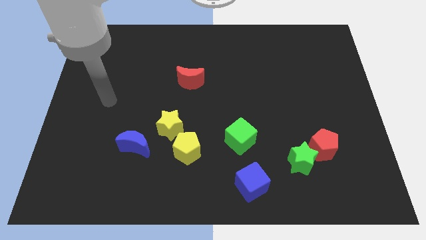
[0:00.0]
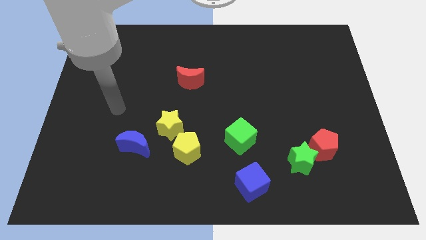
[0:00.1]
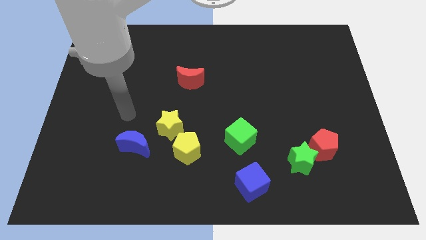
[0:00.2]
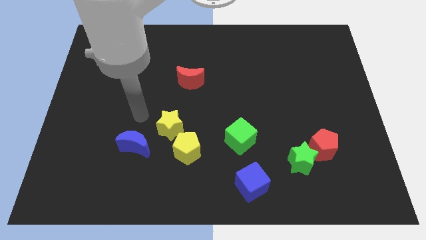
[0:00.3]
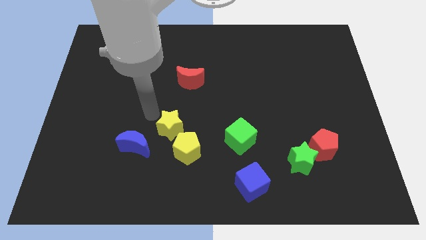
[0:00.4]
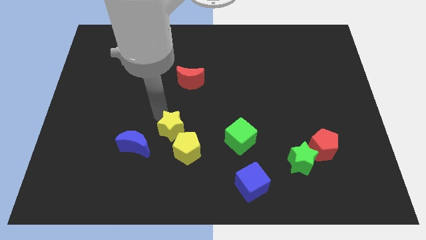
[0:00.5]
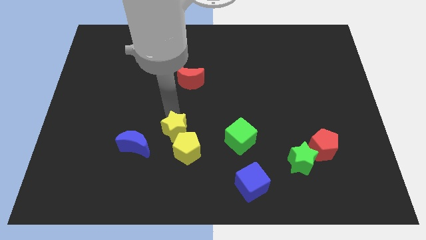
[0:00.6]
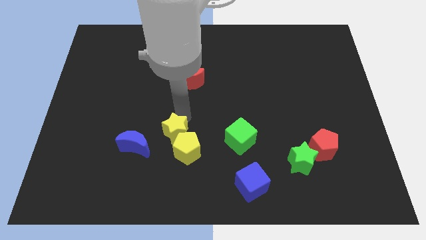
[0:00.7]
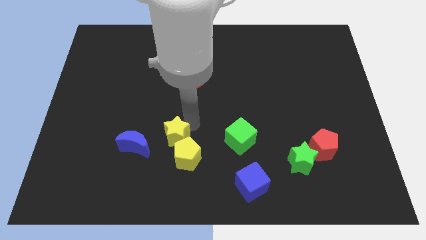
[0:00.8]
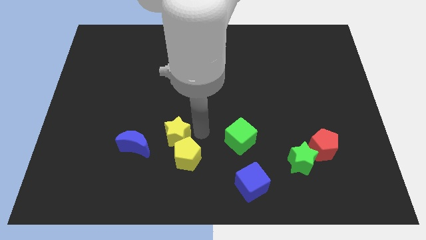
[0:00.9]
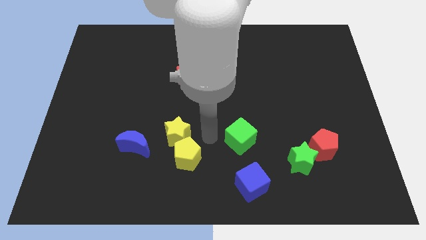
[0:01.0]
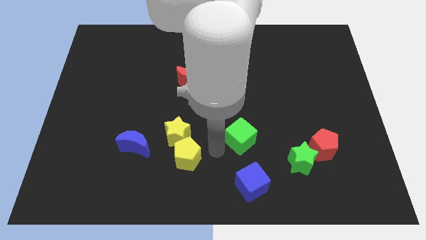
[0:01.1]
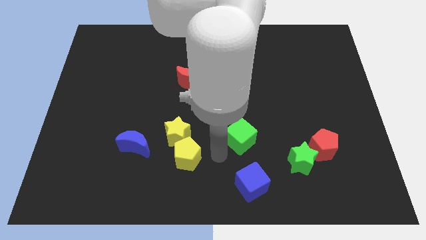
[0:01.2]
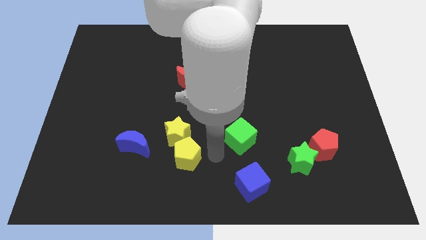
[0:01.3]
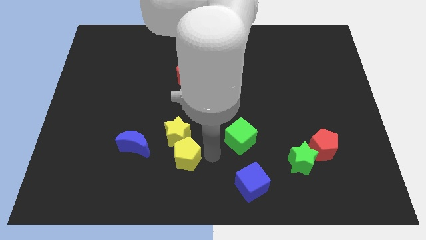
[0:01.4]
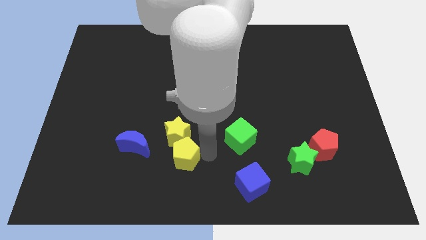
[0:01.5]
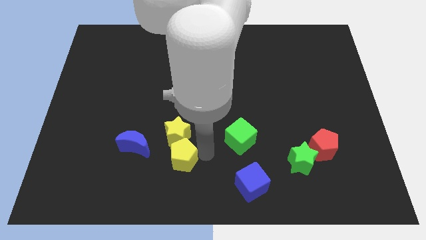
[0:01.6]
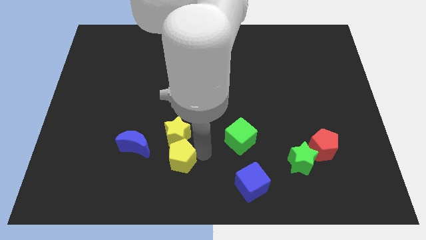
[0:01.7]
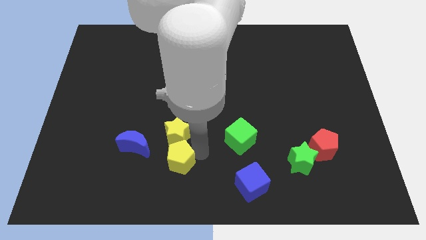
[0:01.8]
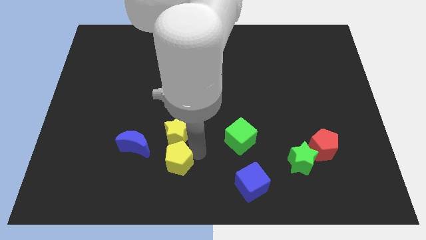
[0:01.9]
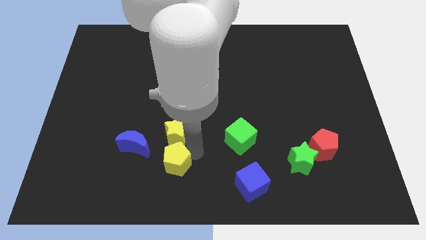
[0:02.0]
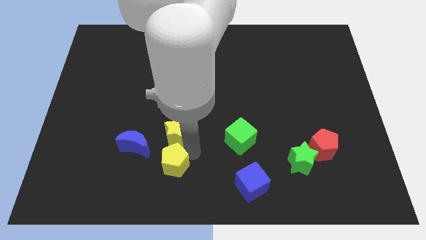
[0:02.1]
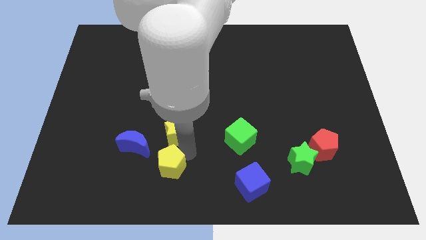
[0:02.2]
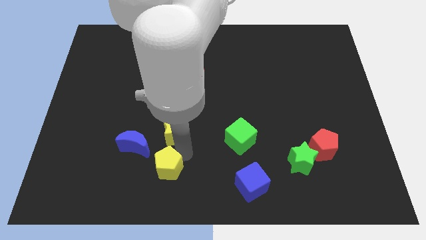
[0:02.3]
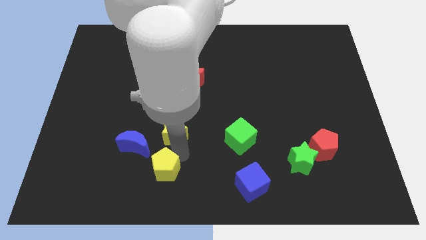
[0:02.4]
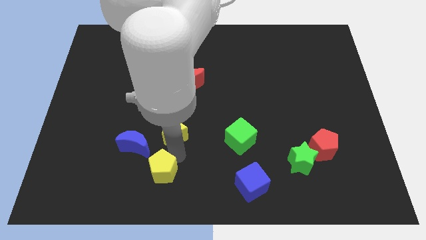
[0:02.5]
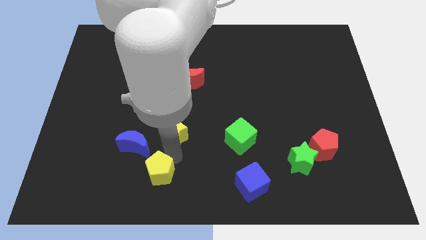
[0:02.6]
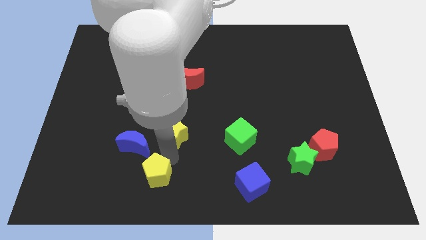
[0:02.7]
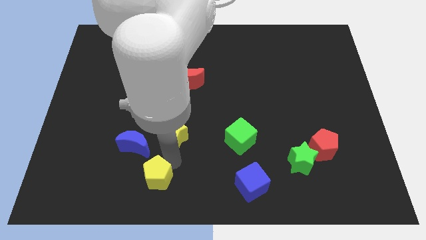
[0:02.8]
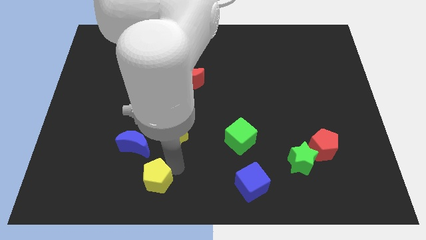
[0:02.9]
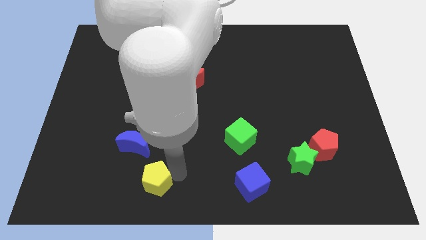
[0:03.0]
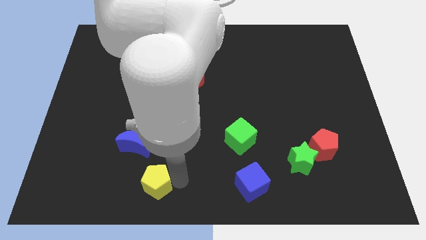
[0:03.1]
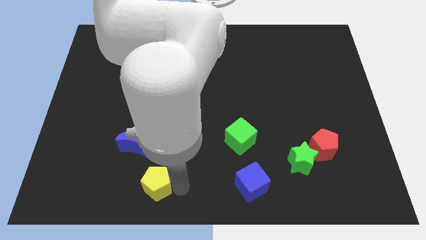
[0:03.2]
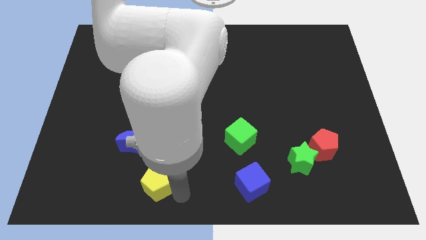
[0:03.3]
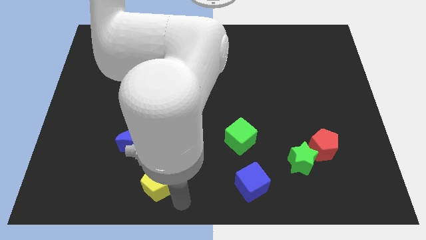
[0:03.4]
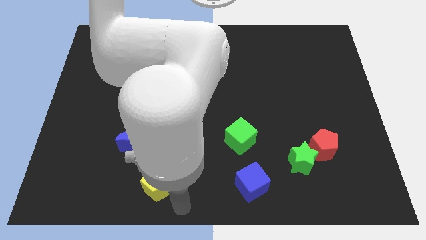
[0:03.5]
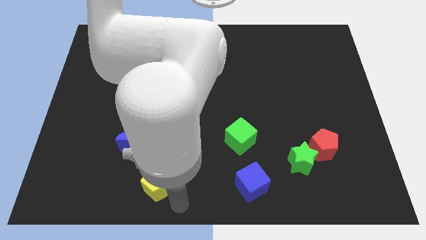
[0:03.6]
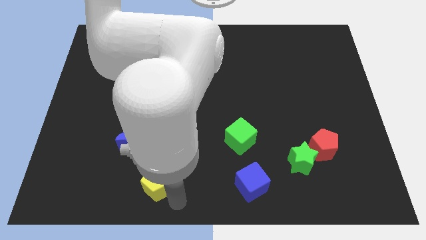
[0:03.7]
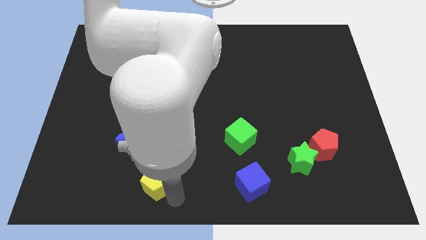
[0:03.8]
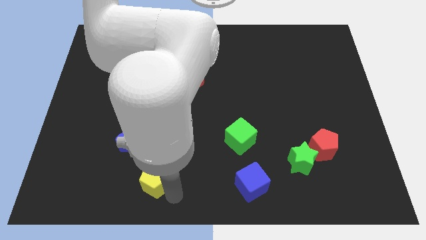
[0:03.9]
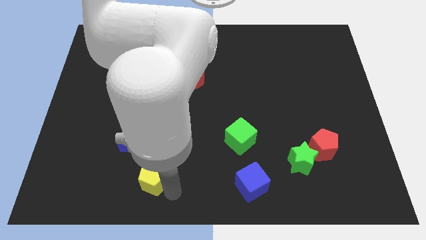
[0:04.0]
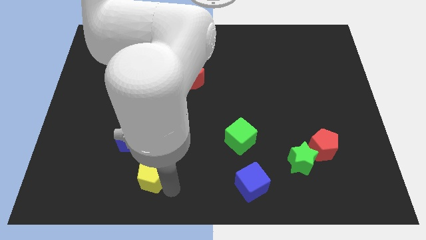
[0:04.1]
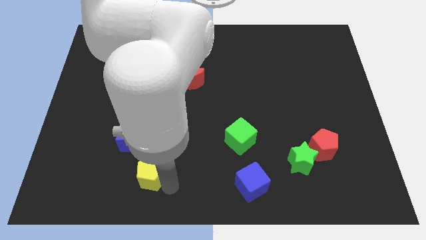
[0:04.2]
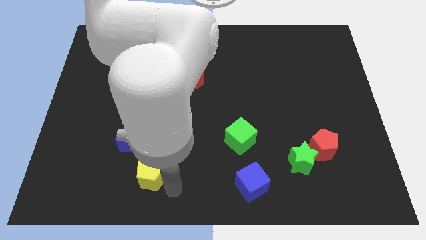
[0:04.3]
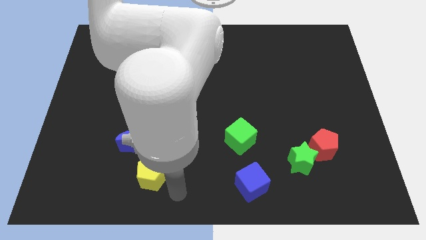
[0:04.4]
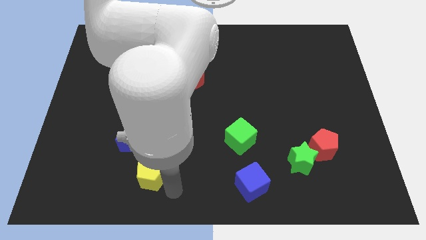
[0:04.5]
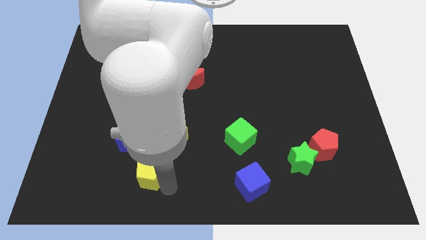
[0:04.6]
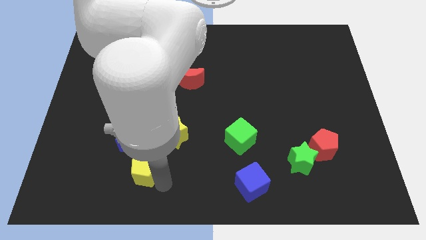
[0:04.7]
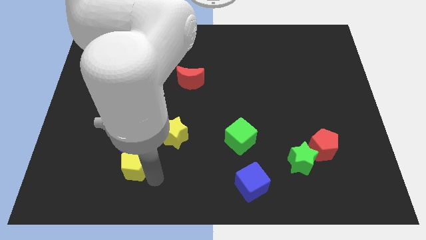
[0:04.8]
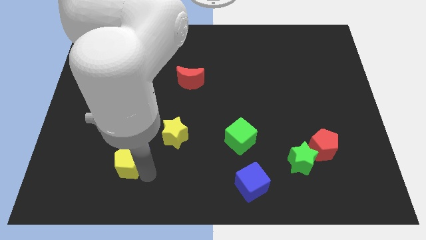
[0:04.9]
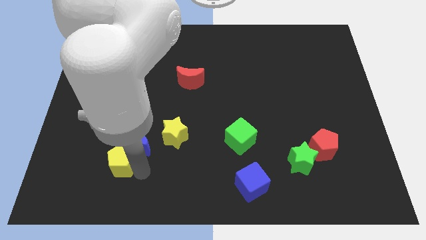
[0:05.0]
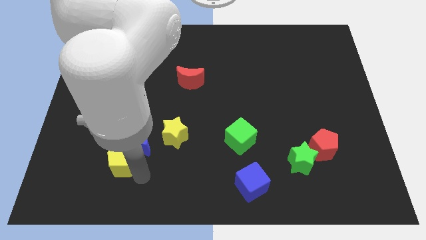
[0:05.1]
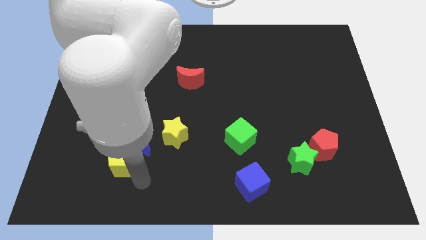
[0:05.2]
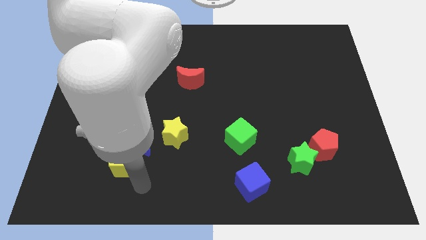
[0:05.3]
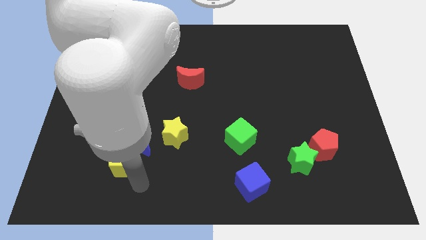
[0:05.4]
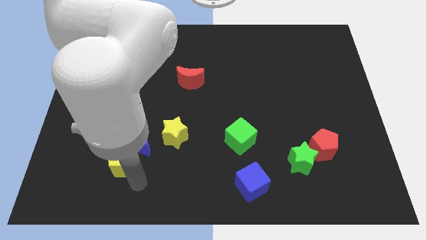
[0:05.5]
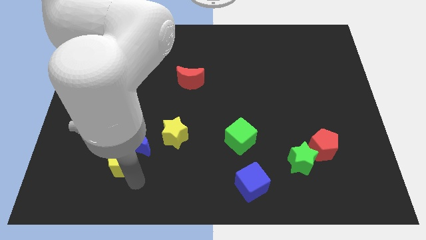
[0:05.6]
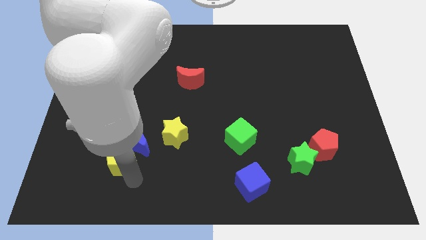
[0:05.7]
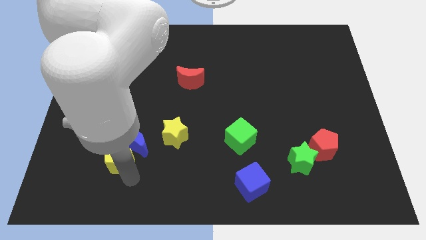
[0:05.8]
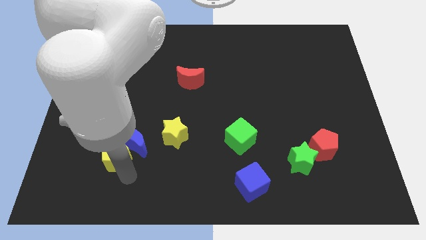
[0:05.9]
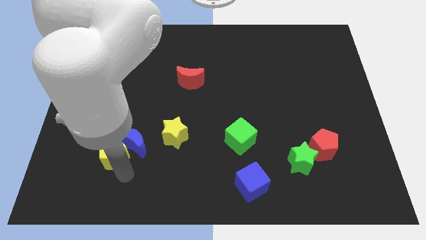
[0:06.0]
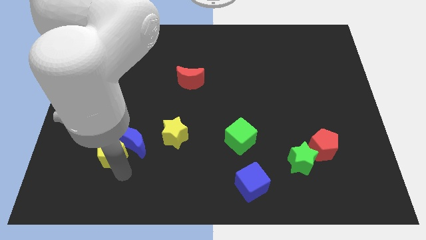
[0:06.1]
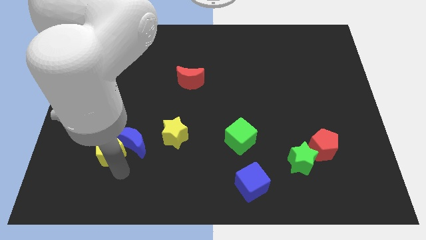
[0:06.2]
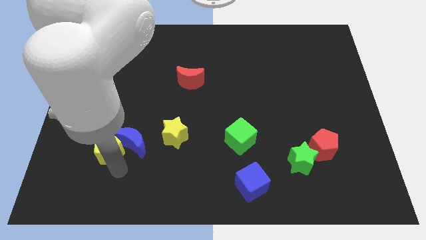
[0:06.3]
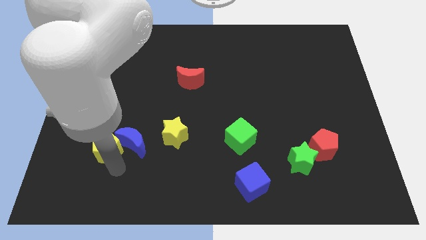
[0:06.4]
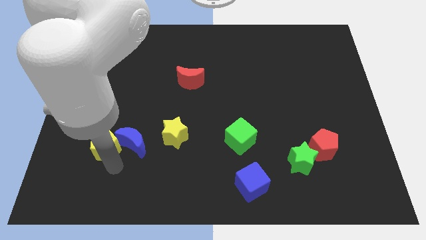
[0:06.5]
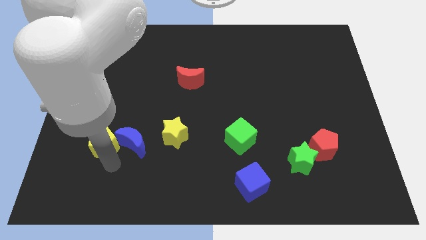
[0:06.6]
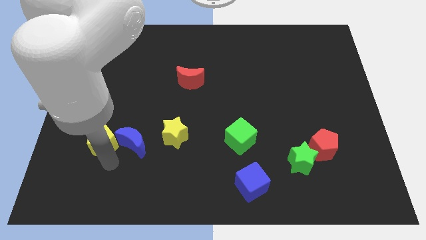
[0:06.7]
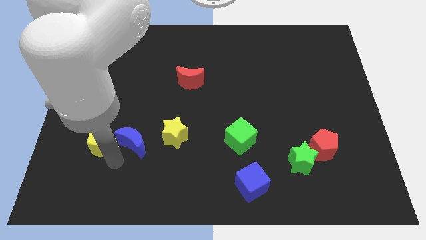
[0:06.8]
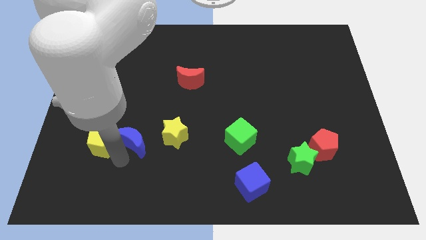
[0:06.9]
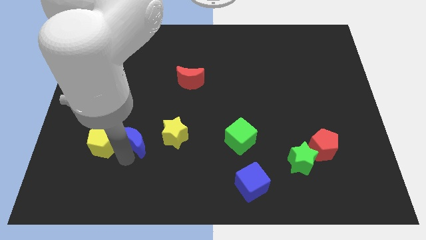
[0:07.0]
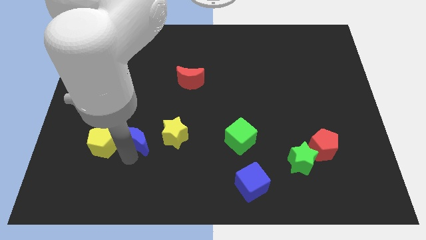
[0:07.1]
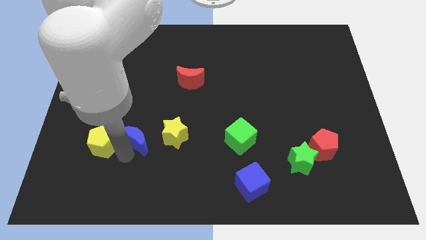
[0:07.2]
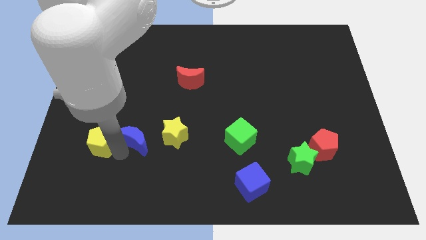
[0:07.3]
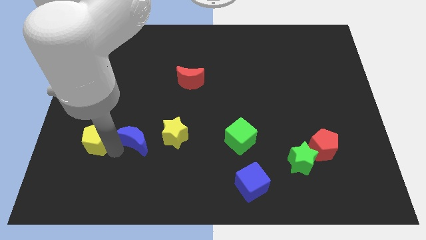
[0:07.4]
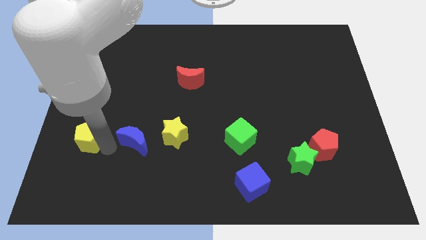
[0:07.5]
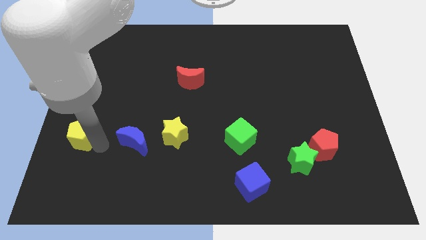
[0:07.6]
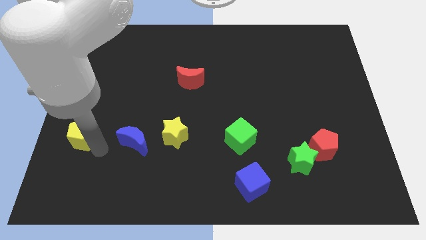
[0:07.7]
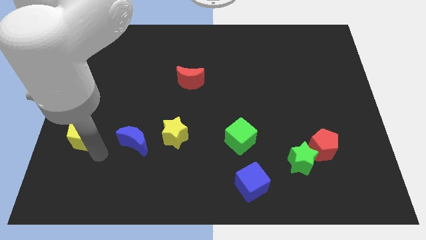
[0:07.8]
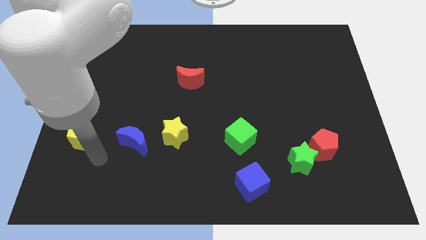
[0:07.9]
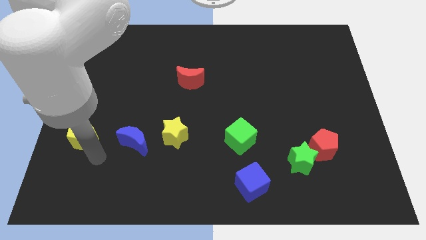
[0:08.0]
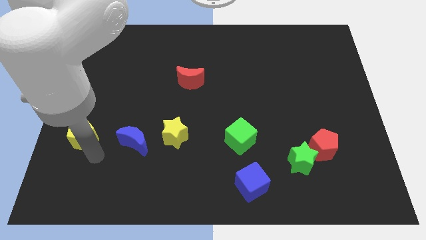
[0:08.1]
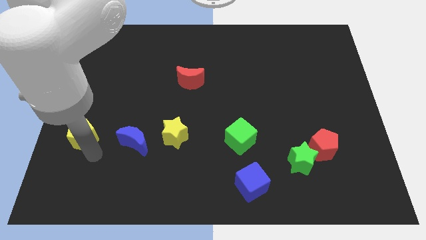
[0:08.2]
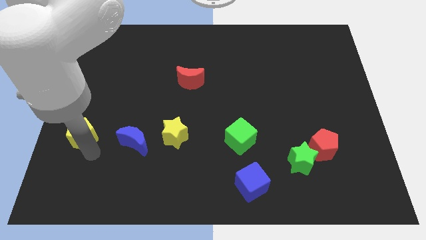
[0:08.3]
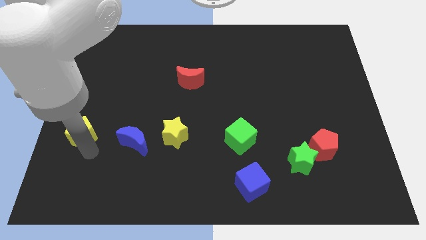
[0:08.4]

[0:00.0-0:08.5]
push the yellow pentagon to the left side of the board
